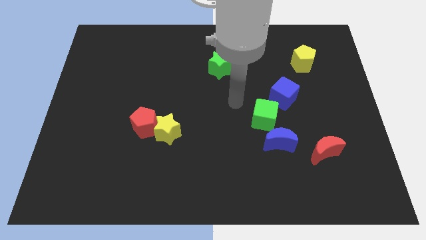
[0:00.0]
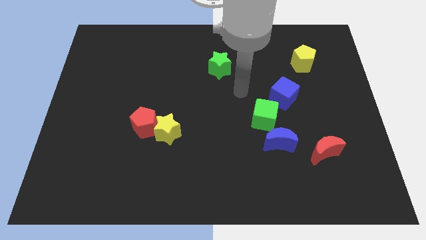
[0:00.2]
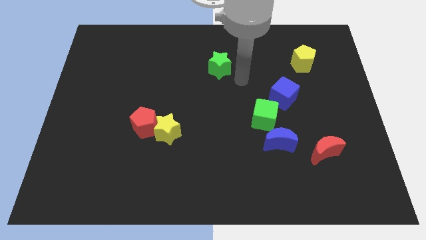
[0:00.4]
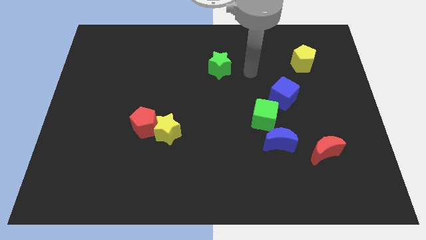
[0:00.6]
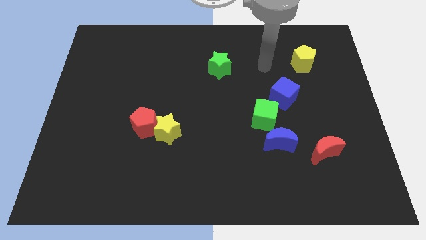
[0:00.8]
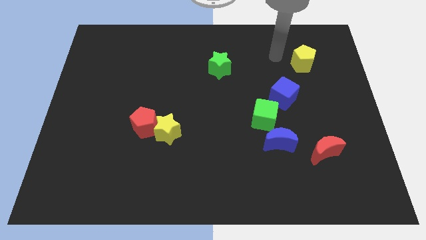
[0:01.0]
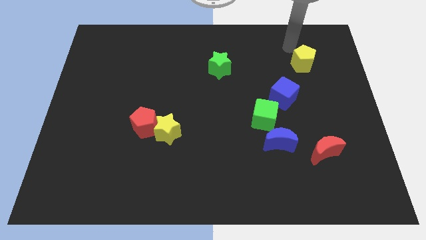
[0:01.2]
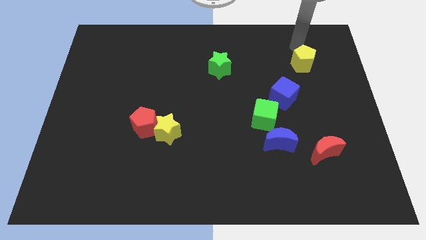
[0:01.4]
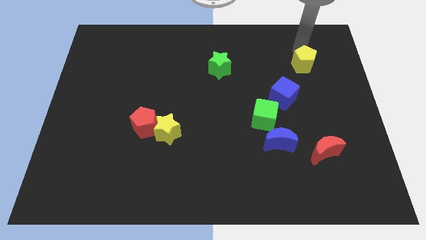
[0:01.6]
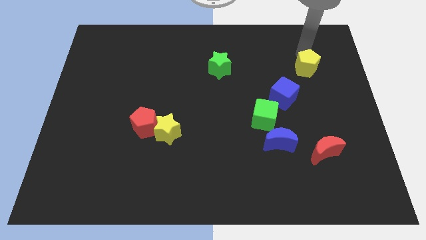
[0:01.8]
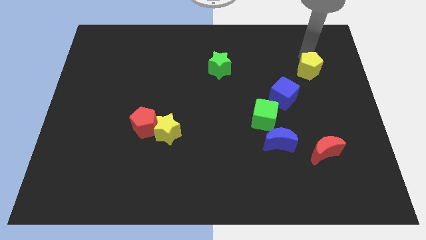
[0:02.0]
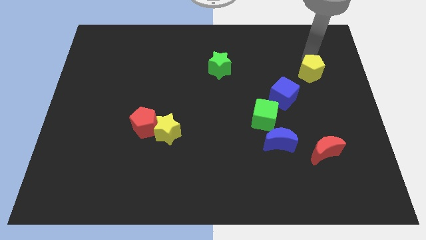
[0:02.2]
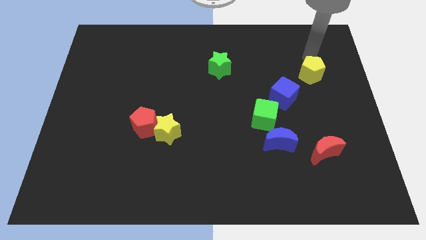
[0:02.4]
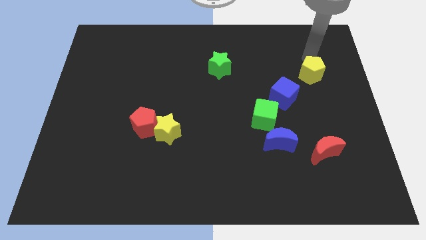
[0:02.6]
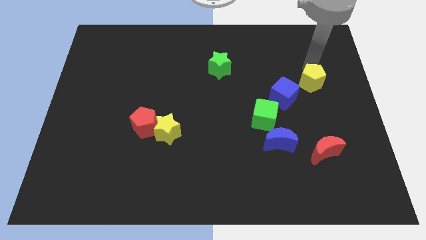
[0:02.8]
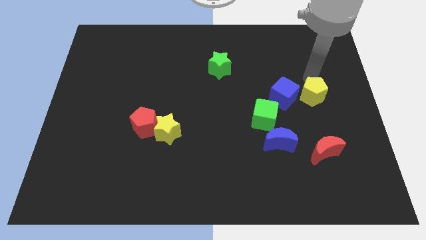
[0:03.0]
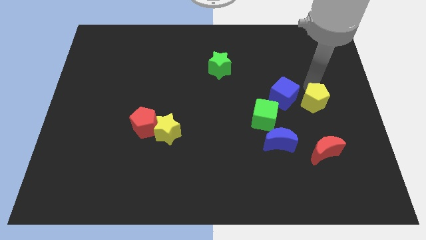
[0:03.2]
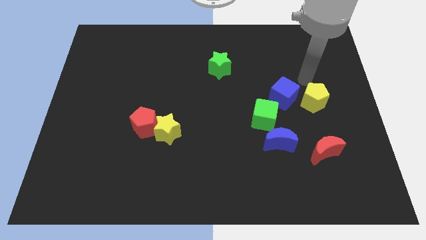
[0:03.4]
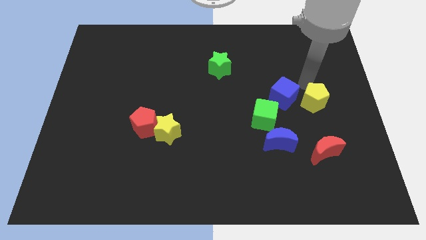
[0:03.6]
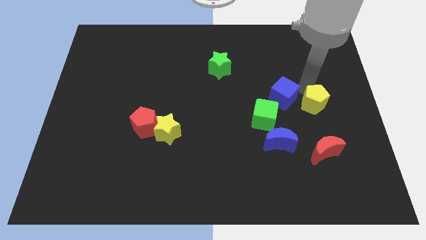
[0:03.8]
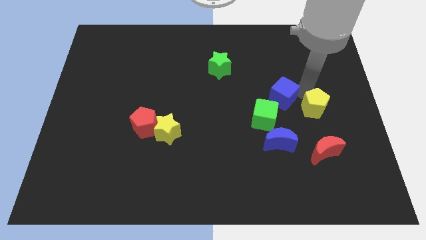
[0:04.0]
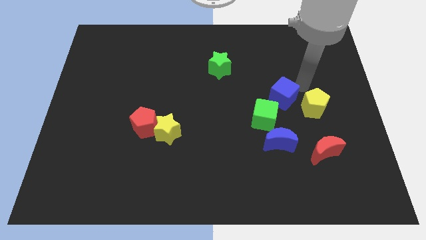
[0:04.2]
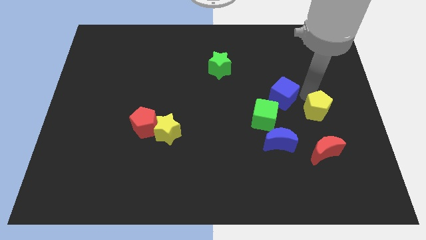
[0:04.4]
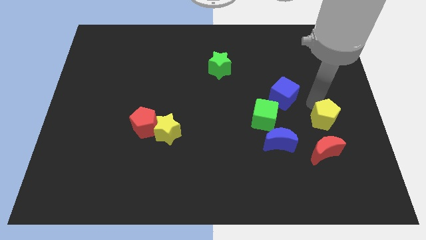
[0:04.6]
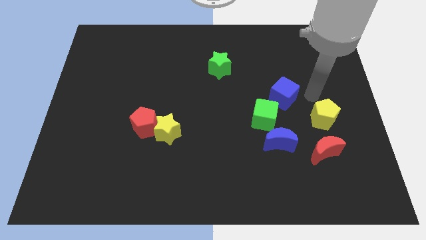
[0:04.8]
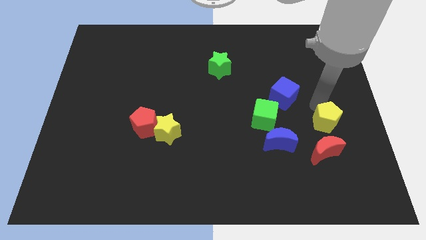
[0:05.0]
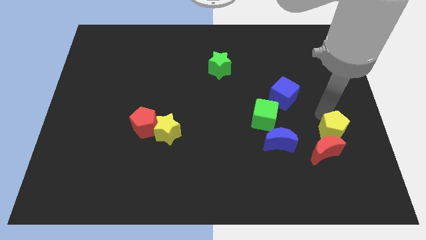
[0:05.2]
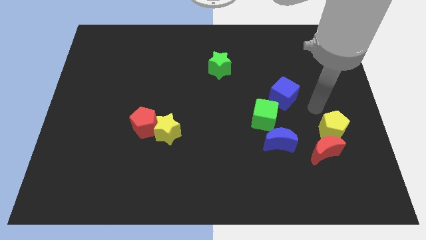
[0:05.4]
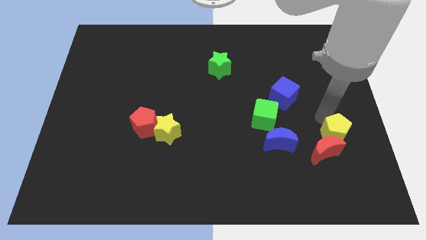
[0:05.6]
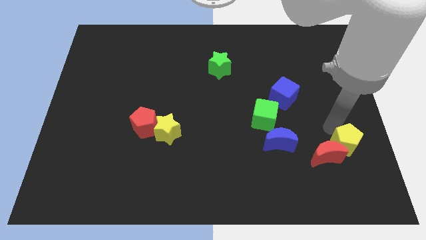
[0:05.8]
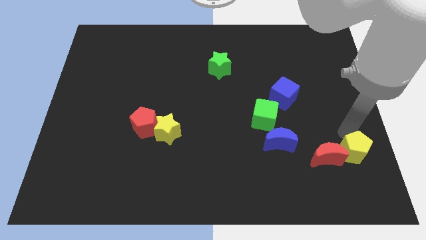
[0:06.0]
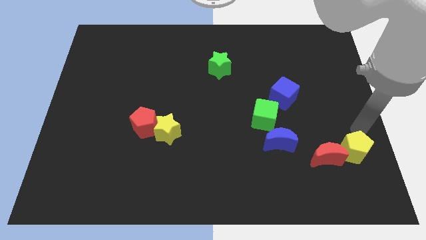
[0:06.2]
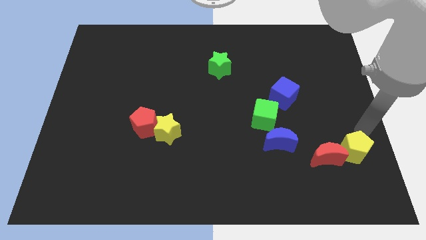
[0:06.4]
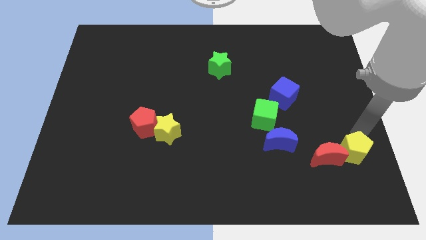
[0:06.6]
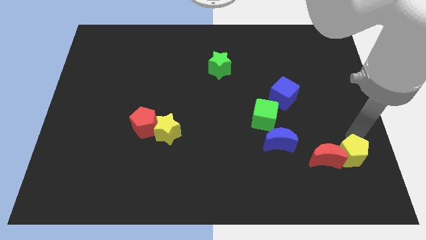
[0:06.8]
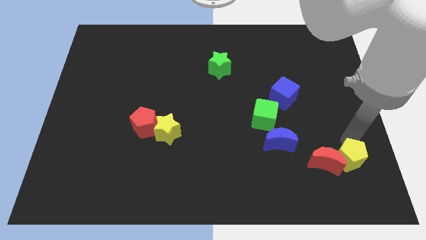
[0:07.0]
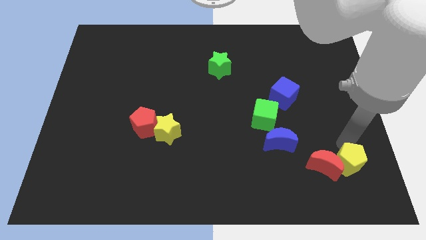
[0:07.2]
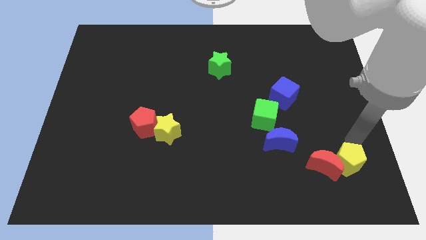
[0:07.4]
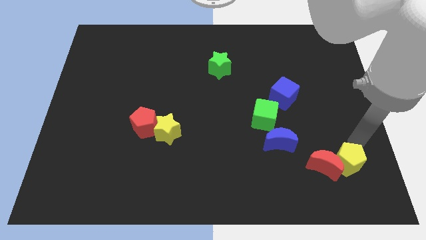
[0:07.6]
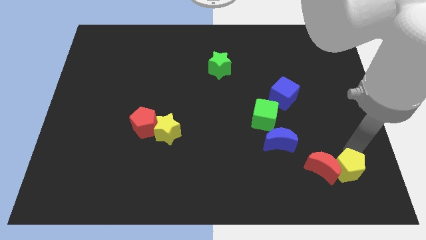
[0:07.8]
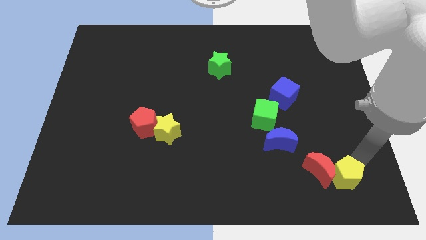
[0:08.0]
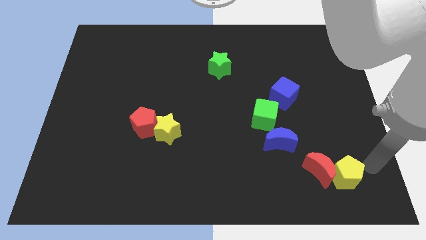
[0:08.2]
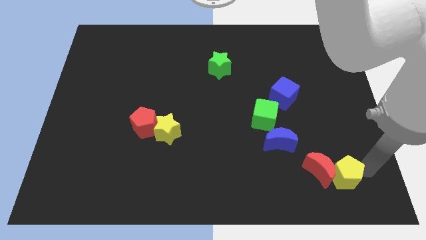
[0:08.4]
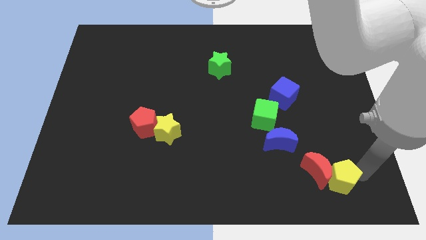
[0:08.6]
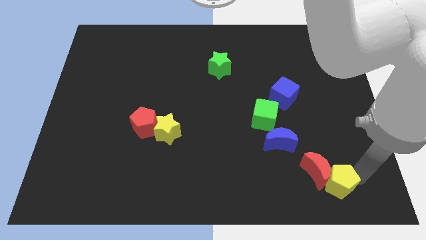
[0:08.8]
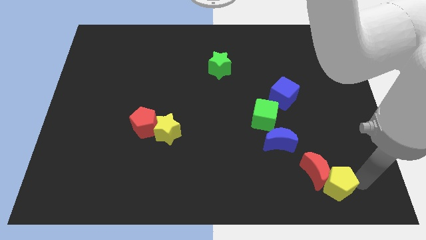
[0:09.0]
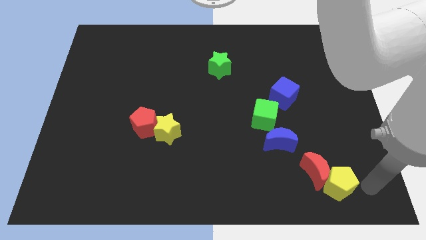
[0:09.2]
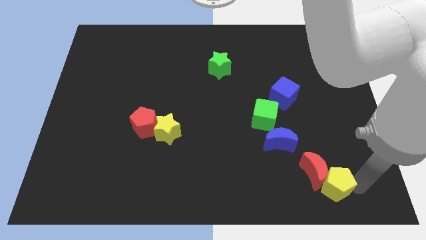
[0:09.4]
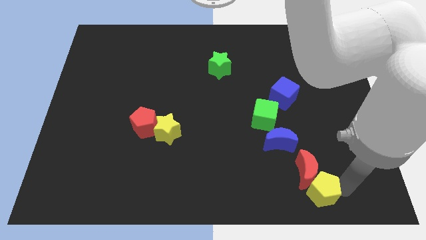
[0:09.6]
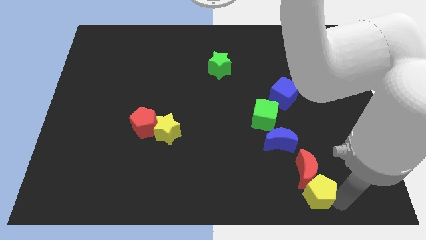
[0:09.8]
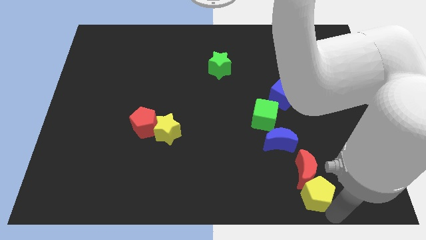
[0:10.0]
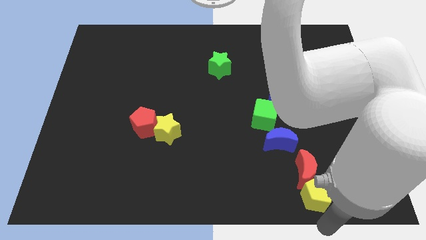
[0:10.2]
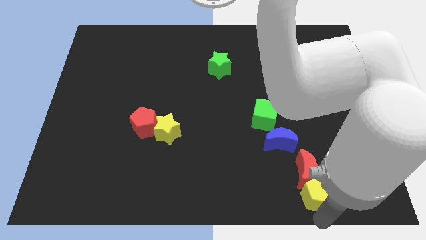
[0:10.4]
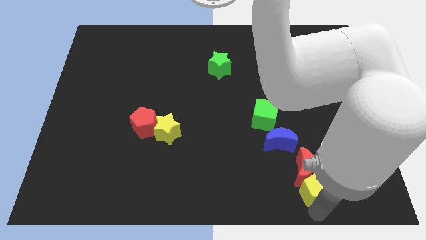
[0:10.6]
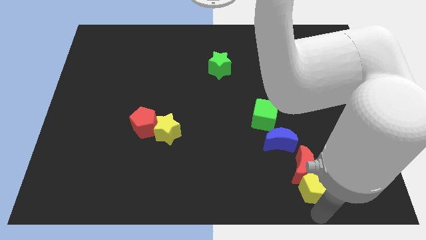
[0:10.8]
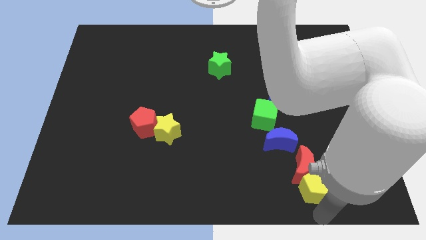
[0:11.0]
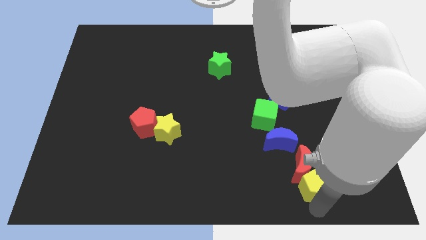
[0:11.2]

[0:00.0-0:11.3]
slide the yellow pentagon to the bottom right side of the blue moon

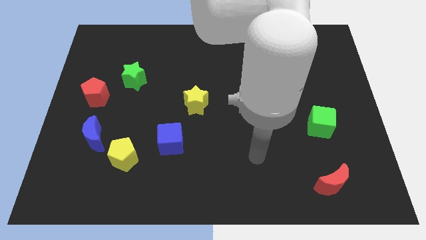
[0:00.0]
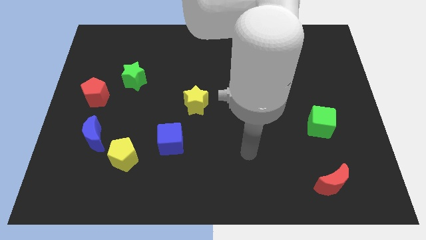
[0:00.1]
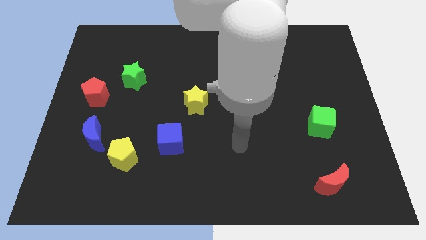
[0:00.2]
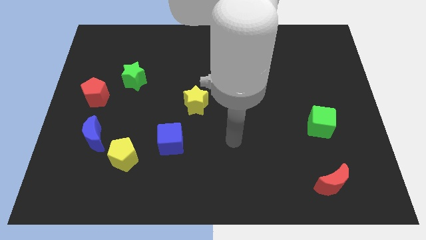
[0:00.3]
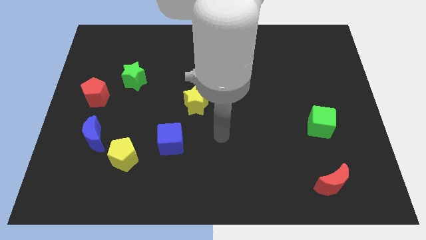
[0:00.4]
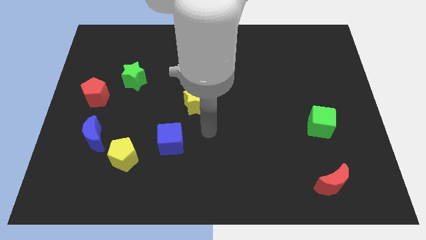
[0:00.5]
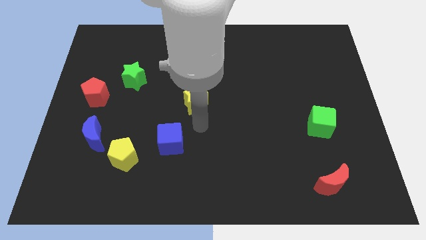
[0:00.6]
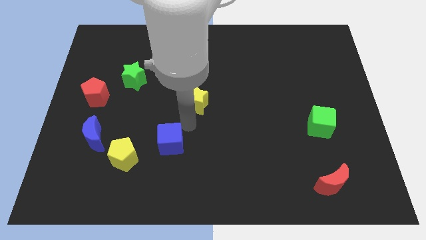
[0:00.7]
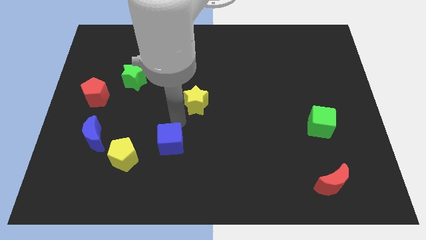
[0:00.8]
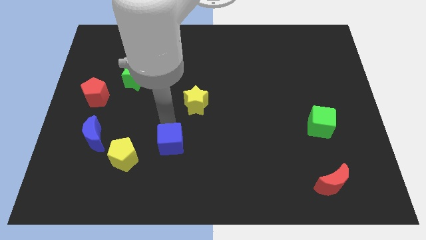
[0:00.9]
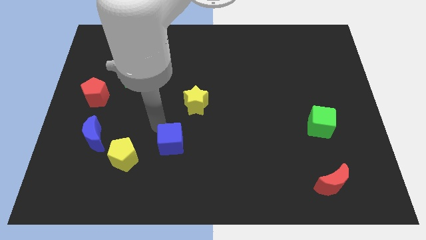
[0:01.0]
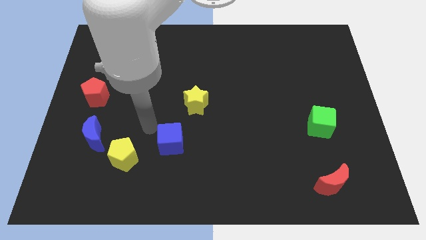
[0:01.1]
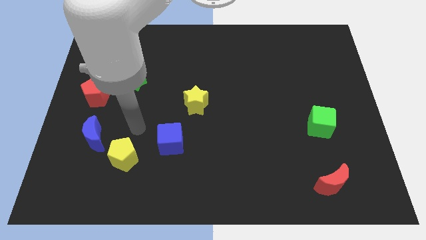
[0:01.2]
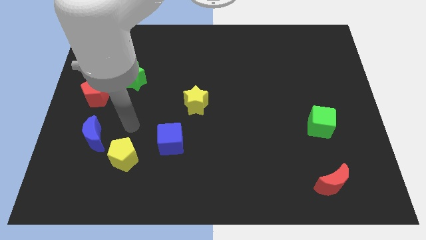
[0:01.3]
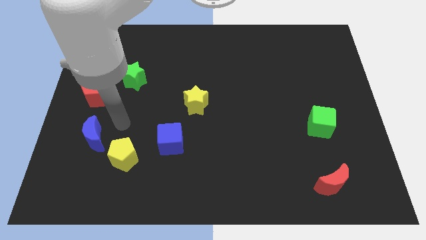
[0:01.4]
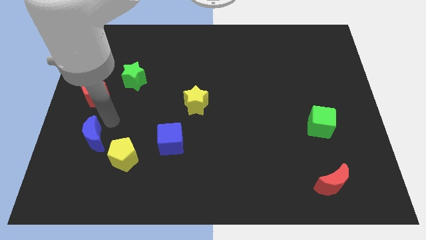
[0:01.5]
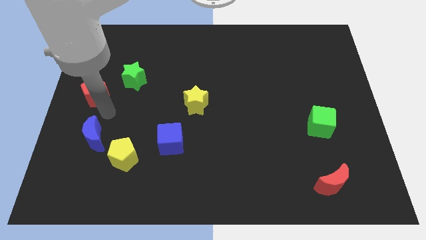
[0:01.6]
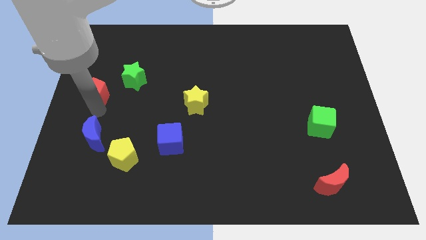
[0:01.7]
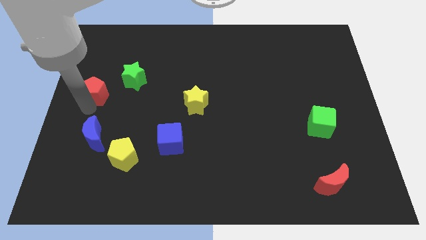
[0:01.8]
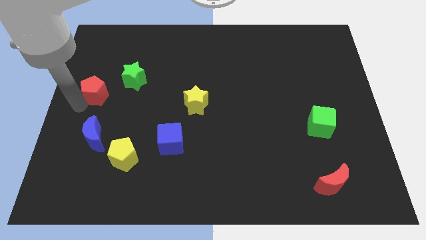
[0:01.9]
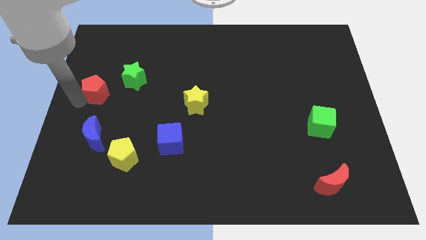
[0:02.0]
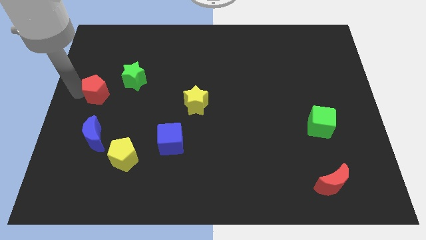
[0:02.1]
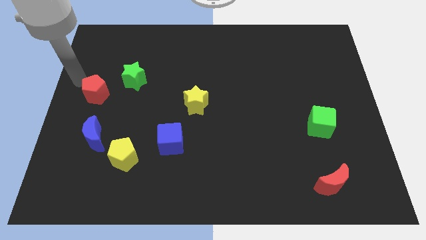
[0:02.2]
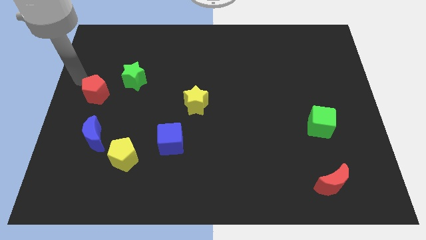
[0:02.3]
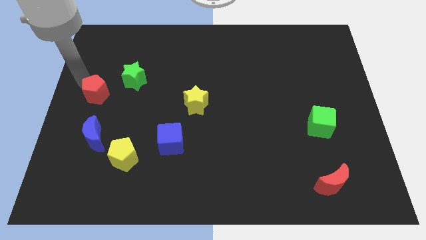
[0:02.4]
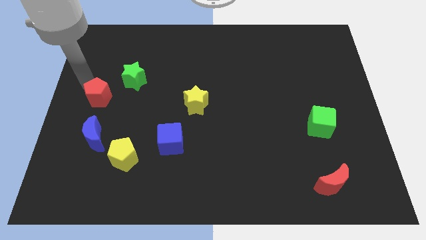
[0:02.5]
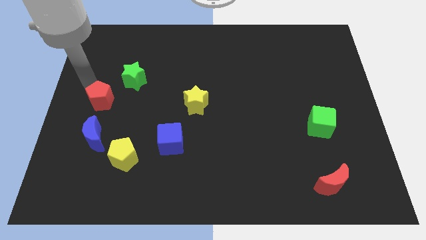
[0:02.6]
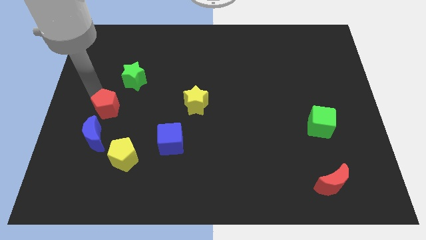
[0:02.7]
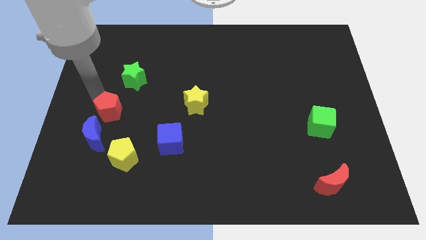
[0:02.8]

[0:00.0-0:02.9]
push the red pentagon to the bottom side of the green star
